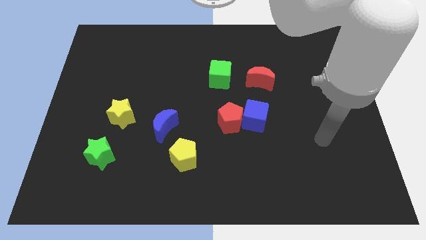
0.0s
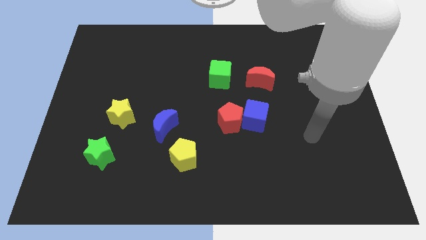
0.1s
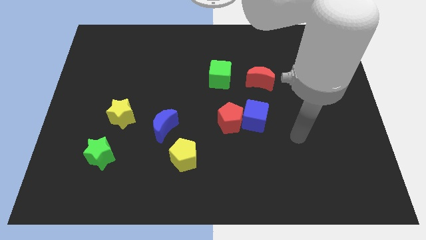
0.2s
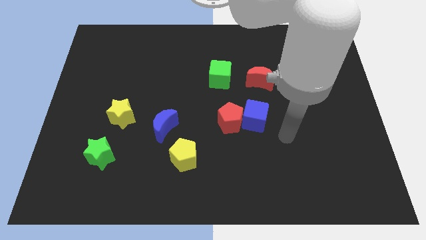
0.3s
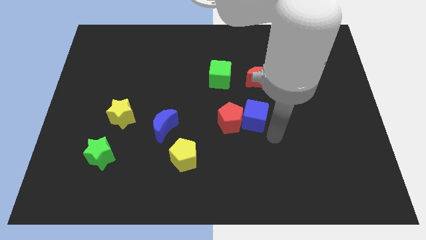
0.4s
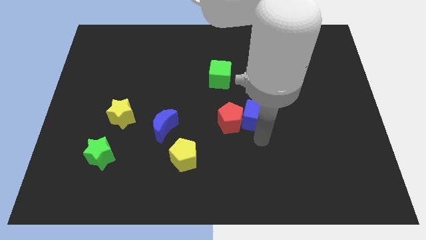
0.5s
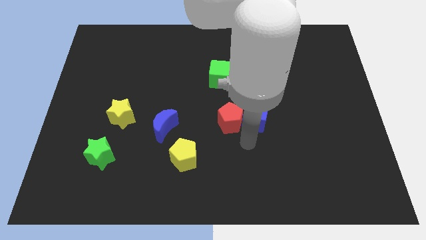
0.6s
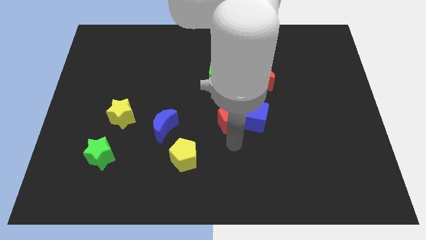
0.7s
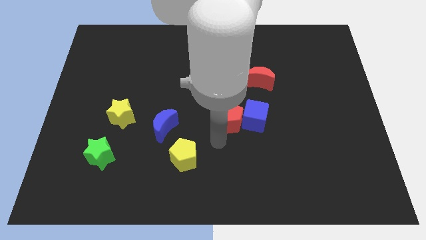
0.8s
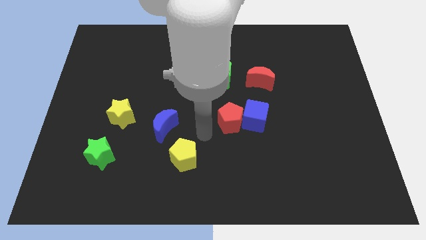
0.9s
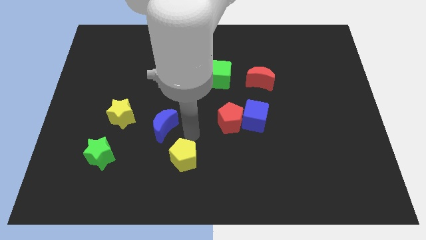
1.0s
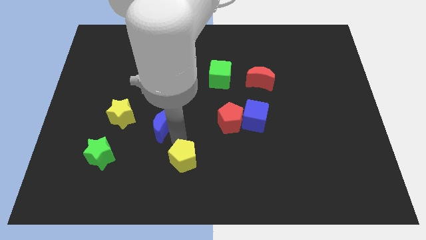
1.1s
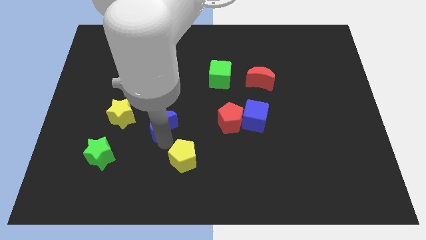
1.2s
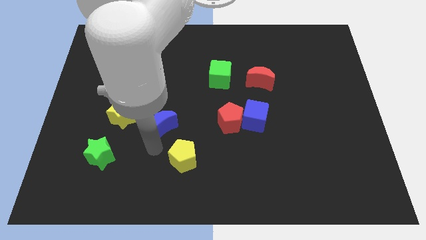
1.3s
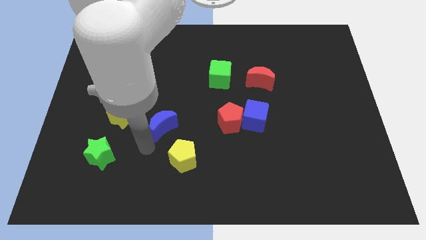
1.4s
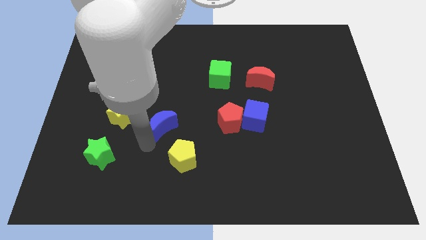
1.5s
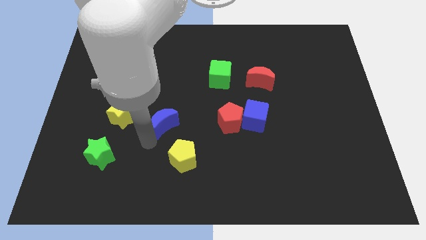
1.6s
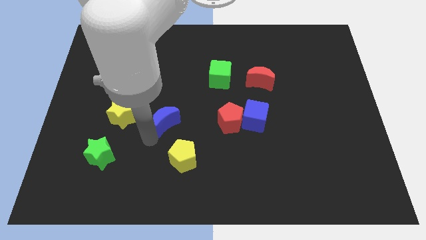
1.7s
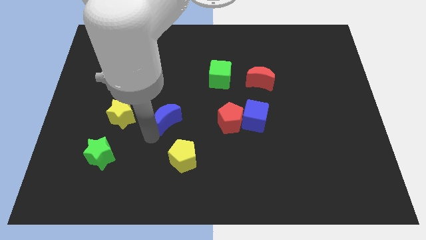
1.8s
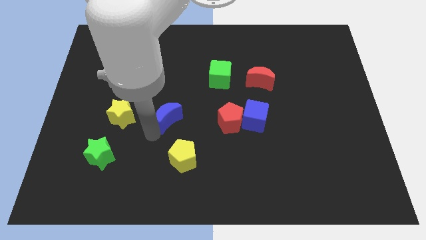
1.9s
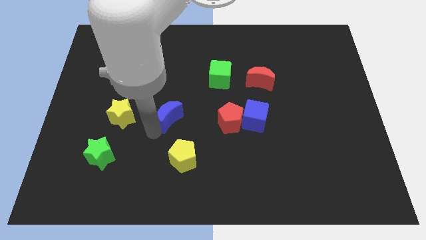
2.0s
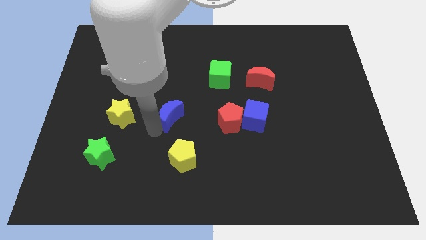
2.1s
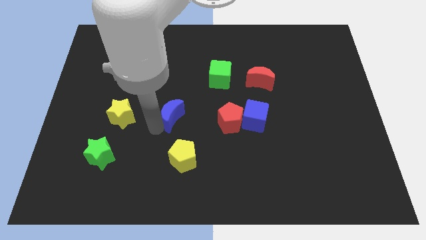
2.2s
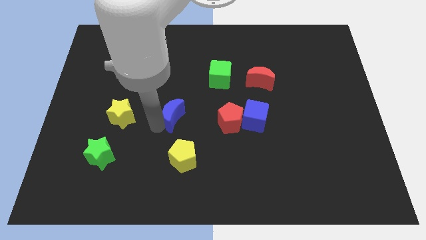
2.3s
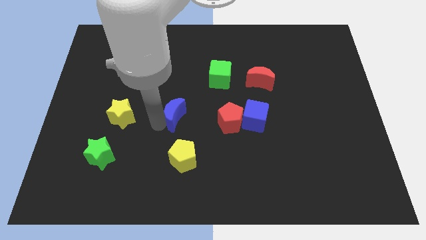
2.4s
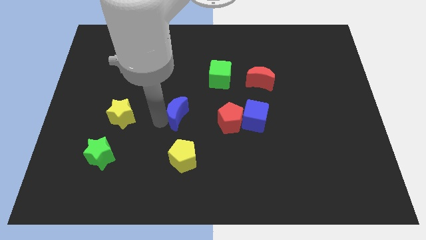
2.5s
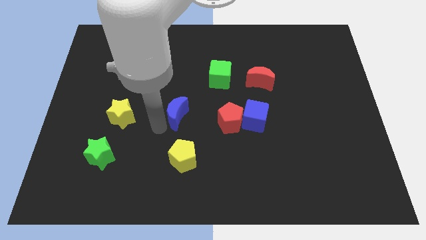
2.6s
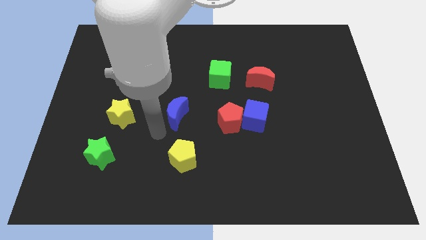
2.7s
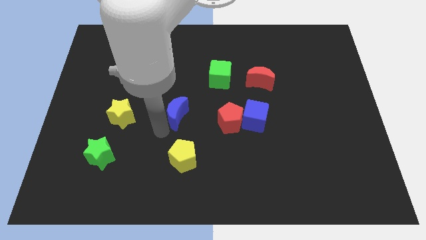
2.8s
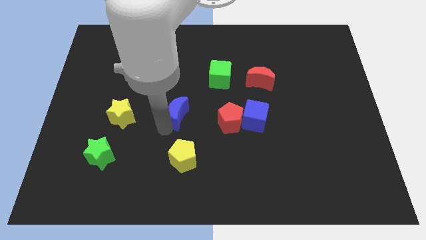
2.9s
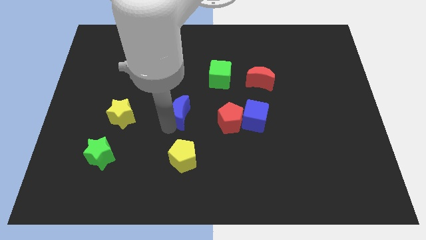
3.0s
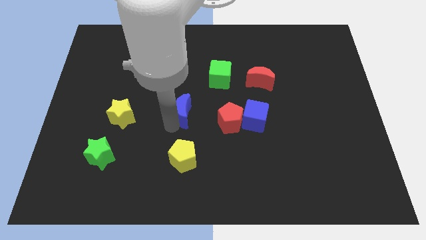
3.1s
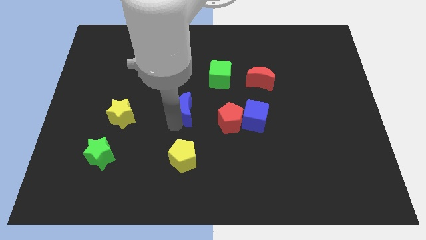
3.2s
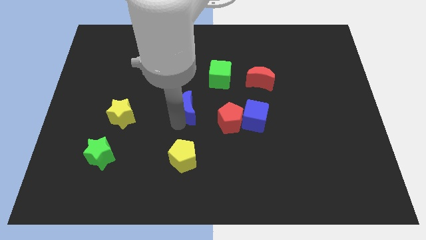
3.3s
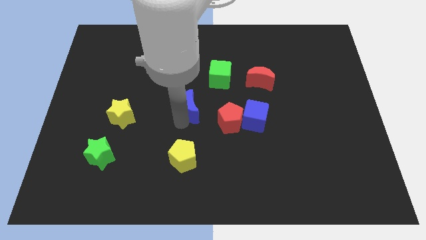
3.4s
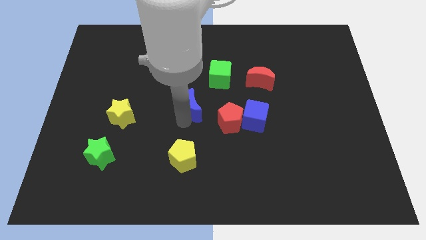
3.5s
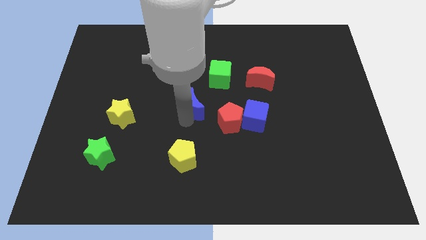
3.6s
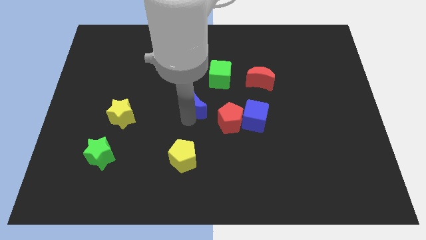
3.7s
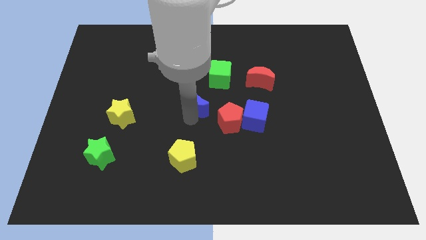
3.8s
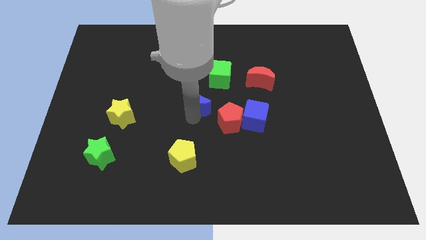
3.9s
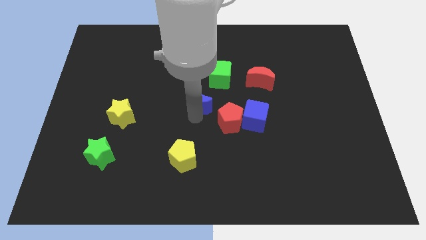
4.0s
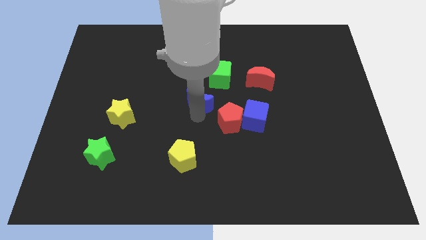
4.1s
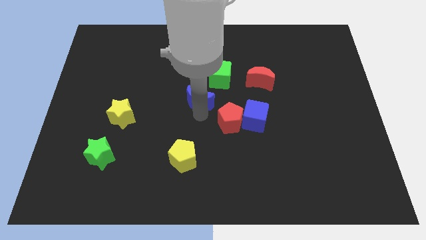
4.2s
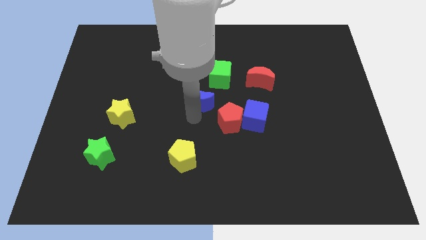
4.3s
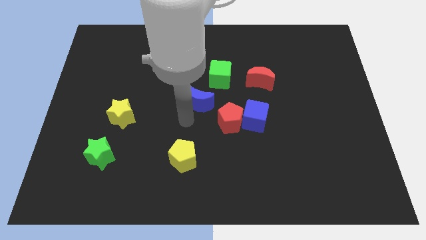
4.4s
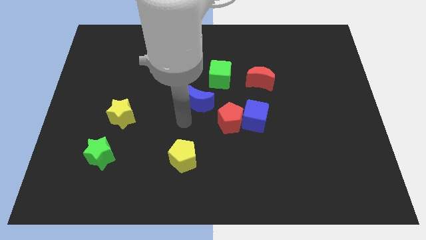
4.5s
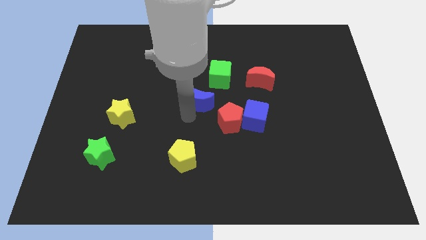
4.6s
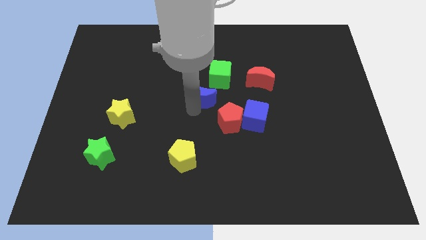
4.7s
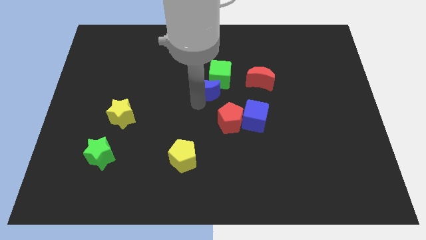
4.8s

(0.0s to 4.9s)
put the blue moon towards the green cube

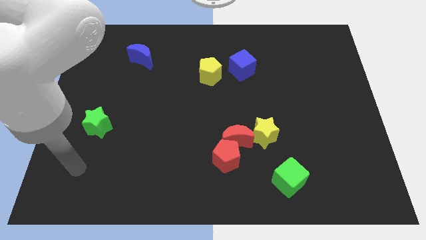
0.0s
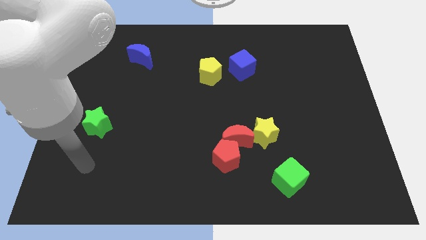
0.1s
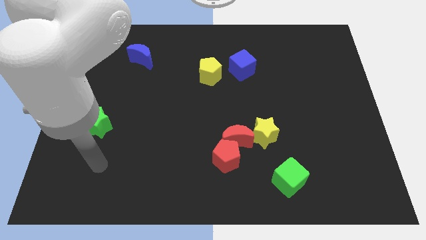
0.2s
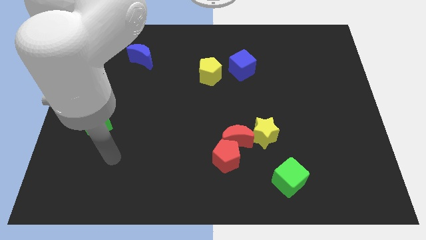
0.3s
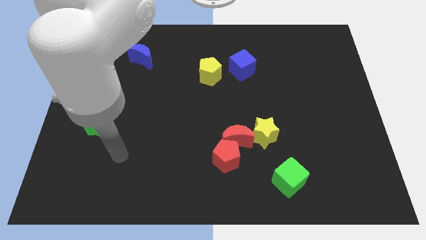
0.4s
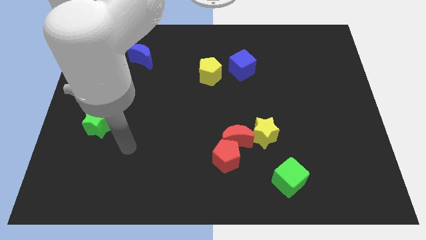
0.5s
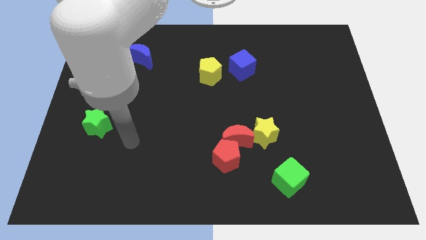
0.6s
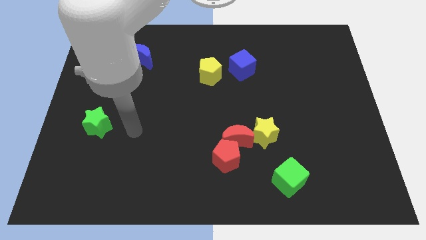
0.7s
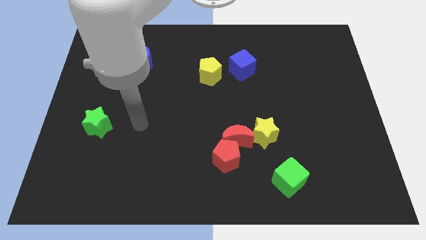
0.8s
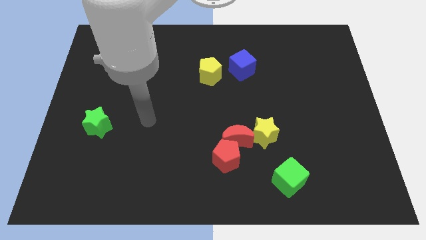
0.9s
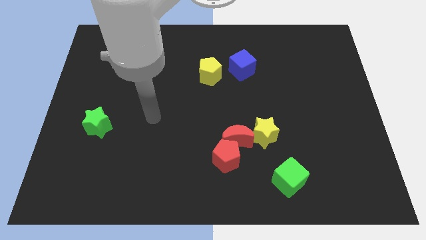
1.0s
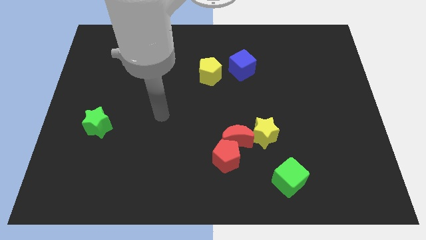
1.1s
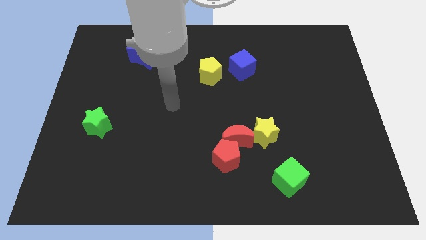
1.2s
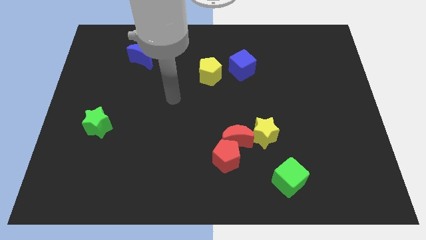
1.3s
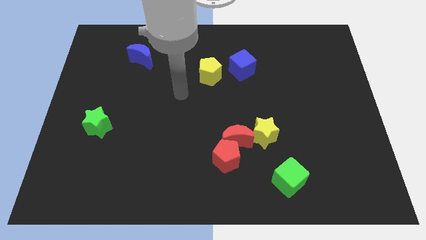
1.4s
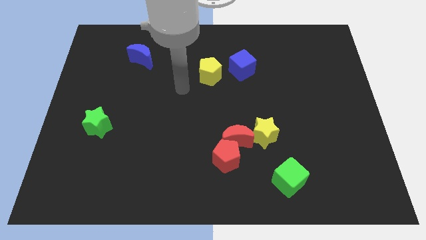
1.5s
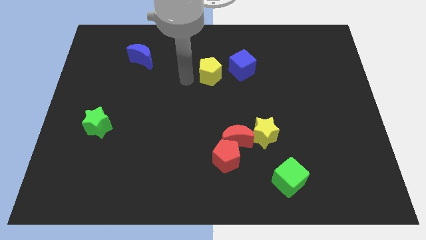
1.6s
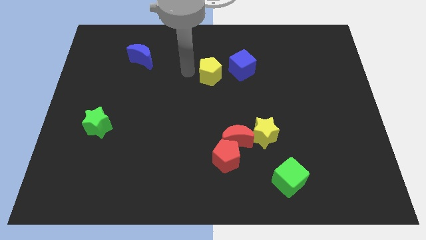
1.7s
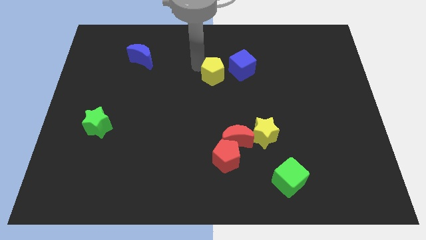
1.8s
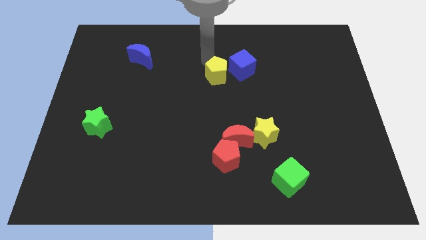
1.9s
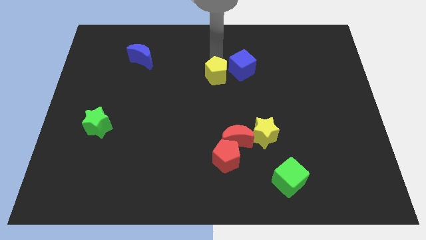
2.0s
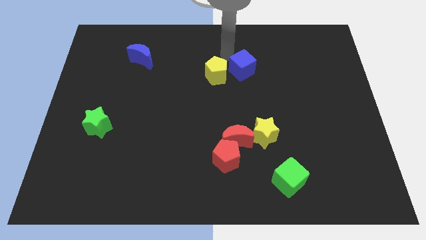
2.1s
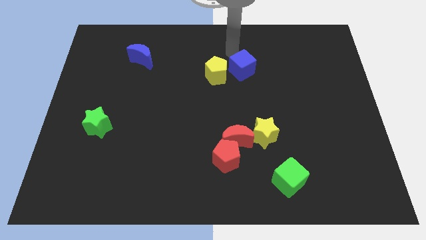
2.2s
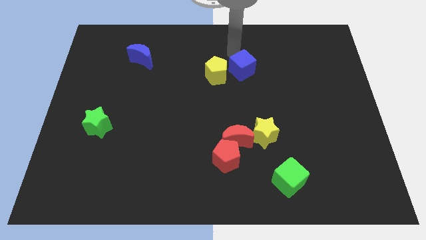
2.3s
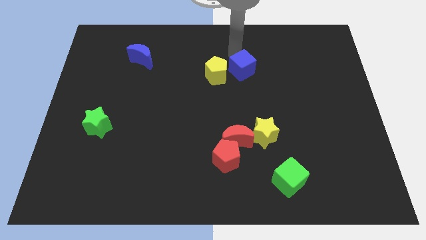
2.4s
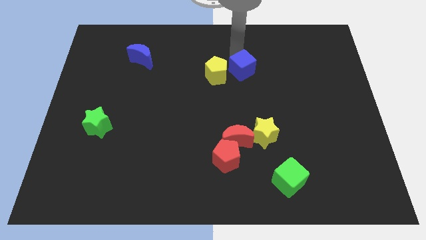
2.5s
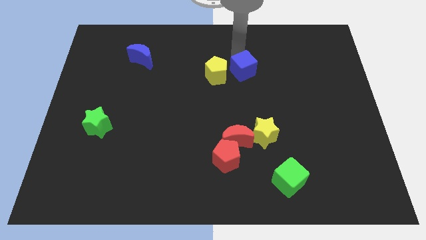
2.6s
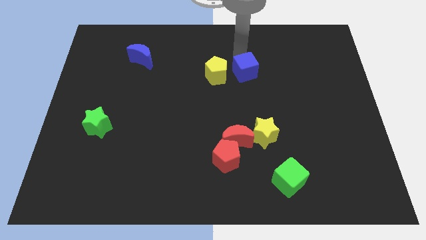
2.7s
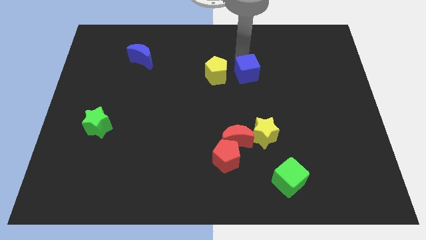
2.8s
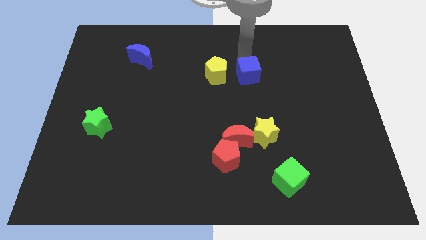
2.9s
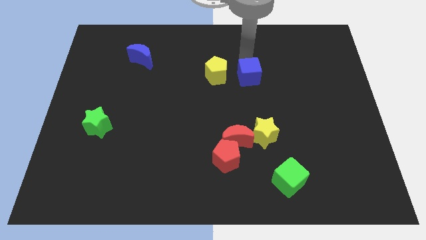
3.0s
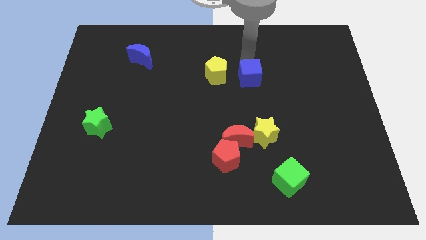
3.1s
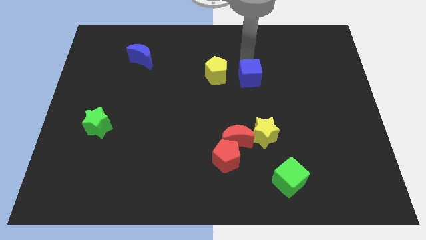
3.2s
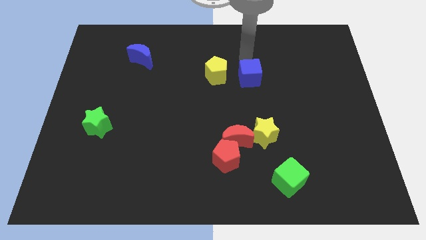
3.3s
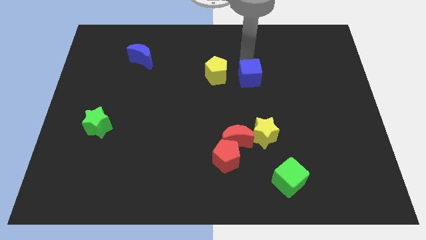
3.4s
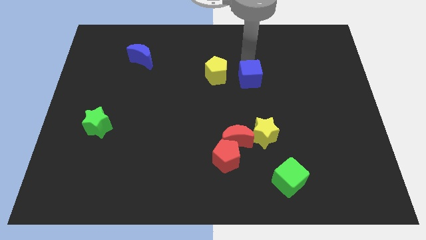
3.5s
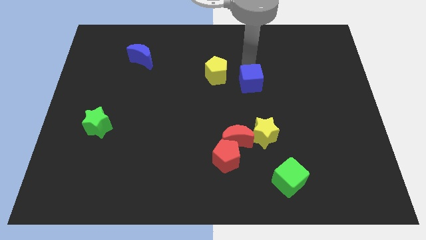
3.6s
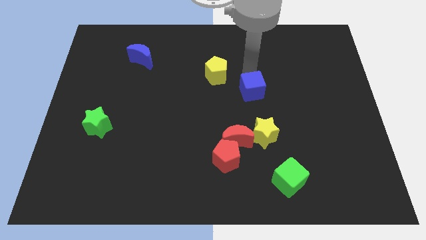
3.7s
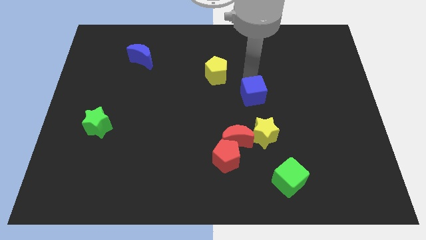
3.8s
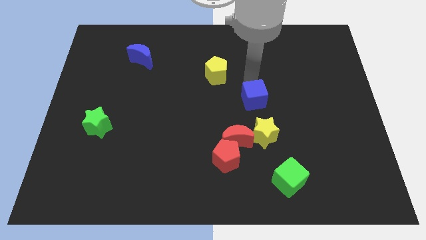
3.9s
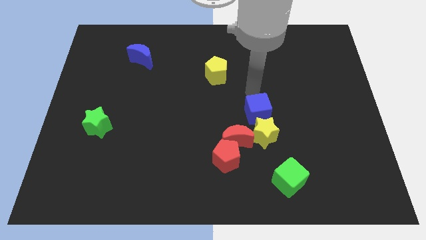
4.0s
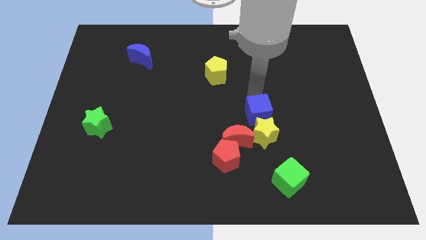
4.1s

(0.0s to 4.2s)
slide the blue cube next to the yellow star
